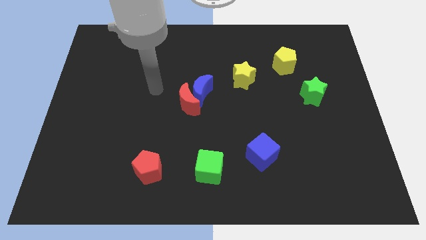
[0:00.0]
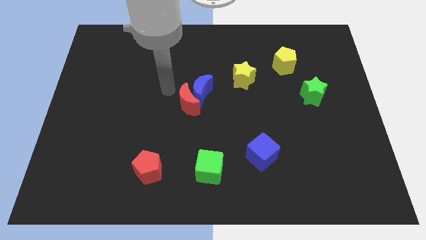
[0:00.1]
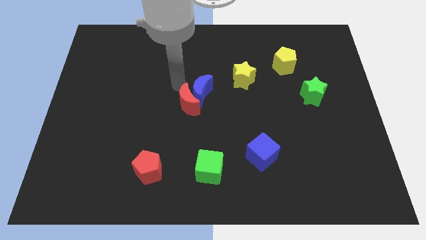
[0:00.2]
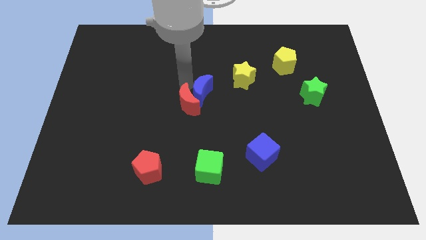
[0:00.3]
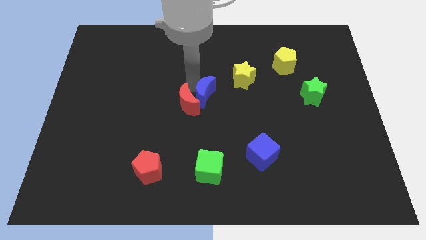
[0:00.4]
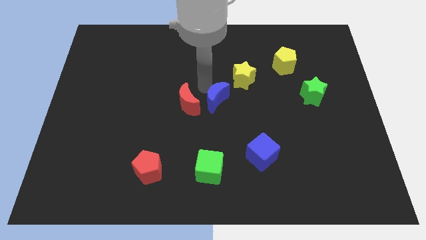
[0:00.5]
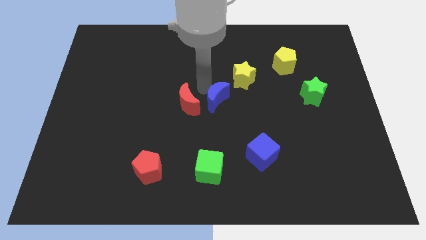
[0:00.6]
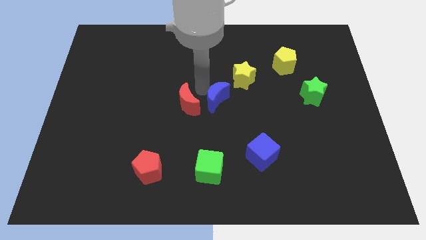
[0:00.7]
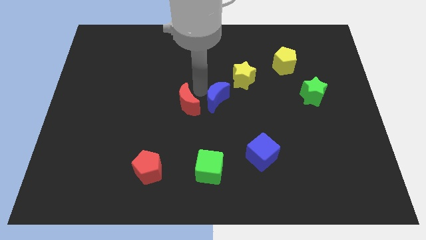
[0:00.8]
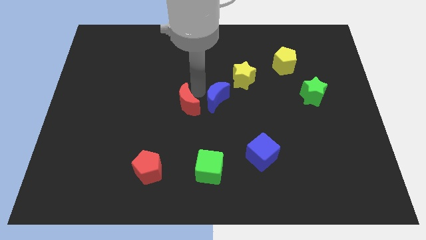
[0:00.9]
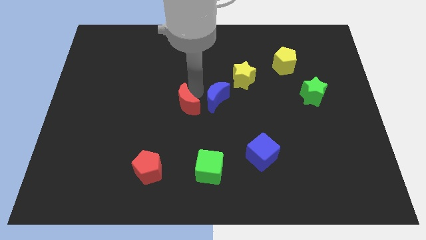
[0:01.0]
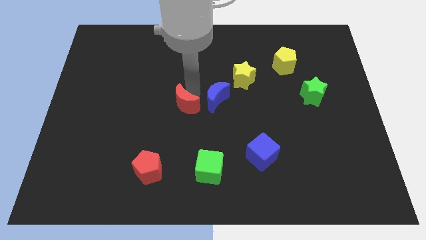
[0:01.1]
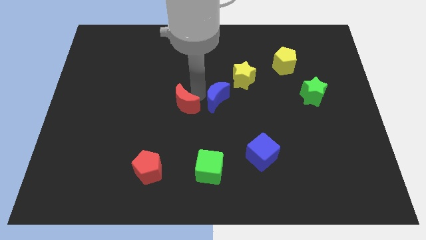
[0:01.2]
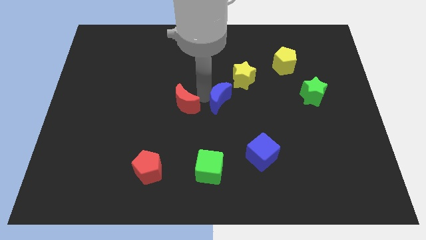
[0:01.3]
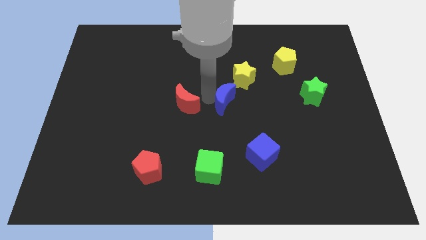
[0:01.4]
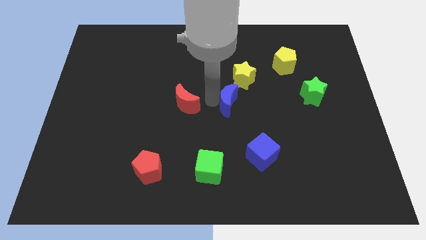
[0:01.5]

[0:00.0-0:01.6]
separate the red moon from the blue moon

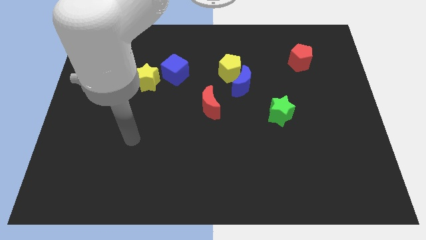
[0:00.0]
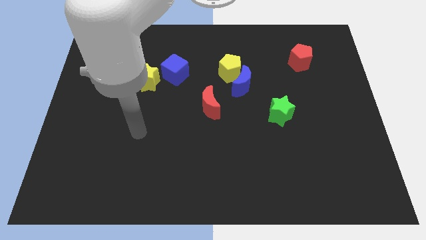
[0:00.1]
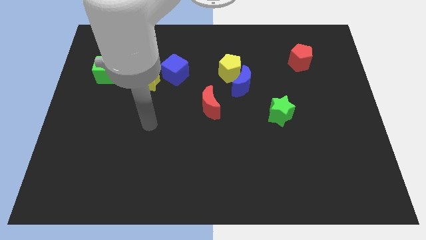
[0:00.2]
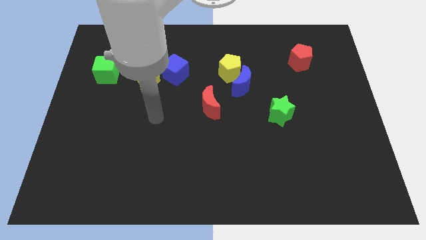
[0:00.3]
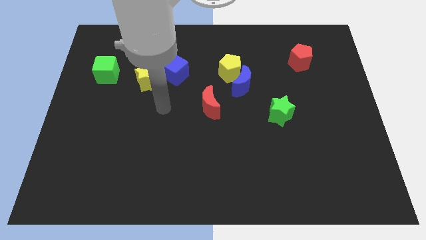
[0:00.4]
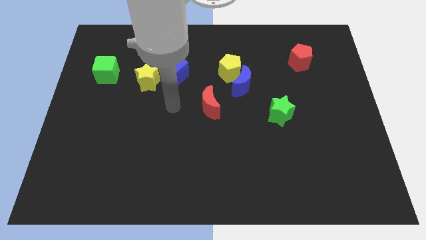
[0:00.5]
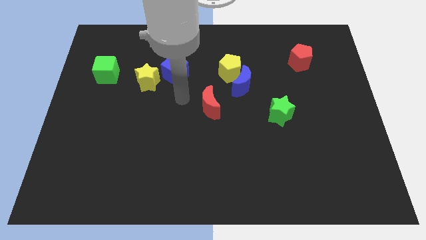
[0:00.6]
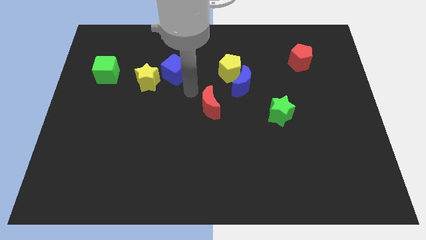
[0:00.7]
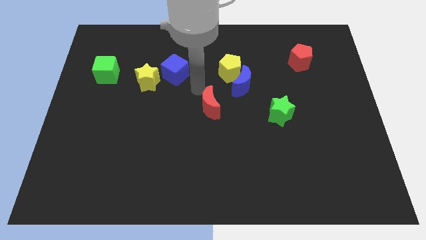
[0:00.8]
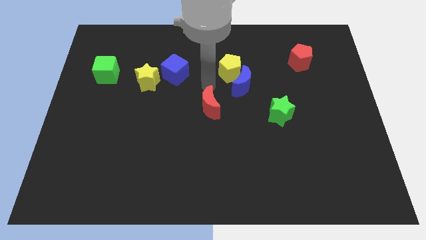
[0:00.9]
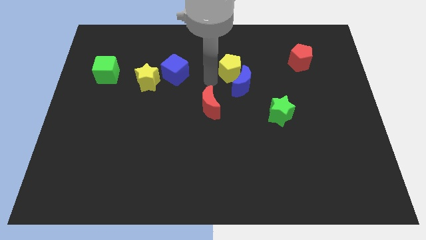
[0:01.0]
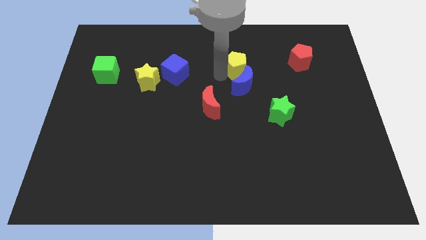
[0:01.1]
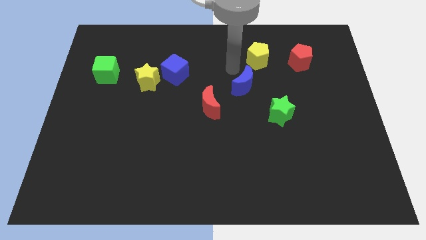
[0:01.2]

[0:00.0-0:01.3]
move the blue moon away from the yellow pentagon

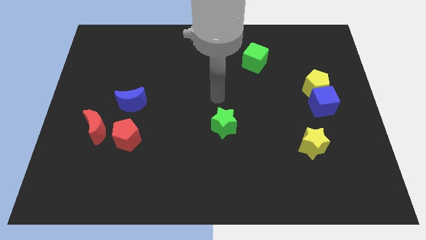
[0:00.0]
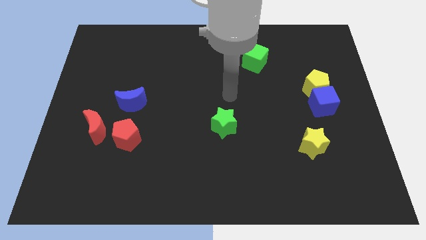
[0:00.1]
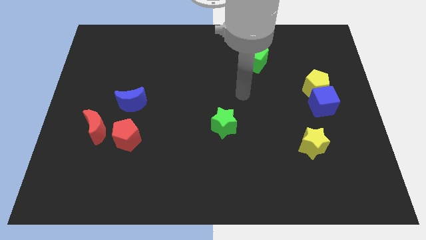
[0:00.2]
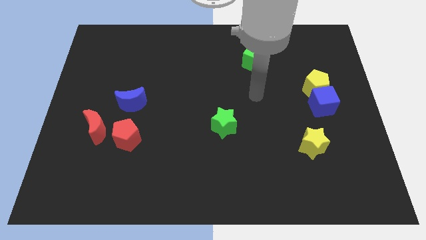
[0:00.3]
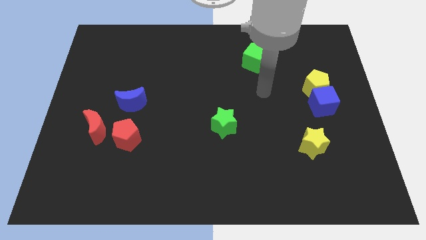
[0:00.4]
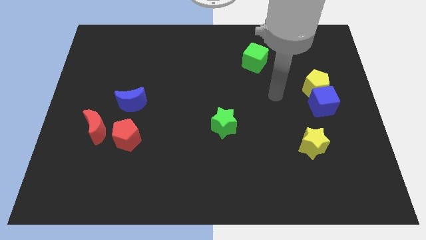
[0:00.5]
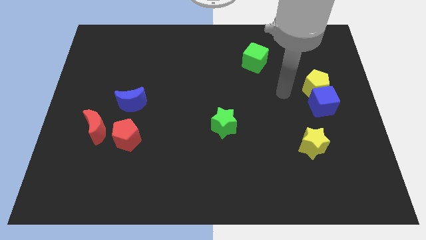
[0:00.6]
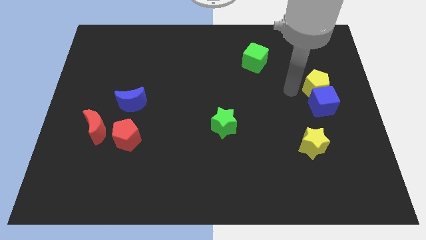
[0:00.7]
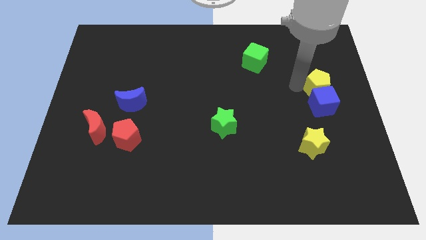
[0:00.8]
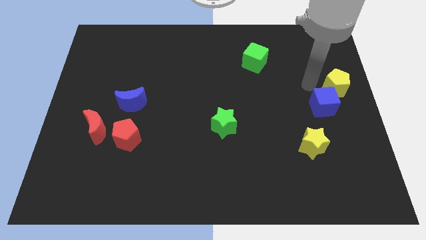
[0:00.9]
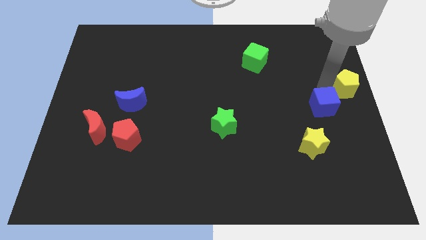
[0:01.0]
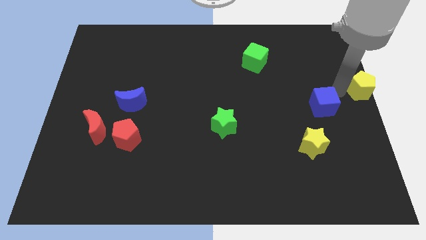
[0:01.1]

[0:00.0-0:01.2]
move the blue cube away from the yellow pentagon

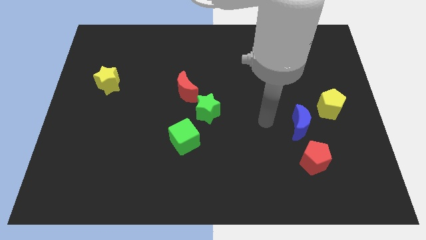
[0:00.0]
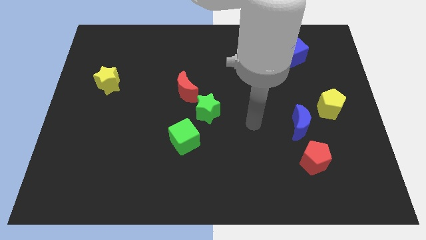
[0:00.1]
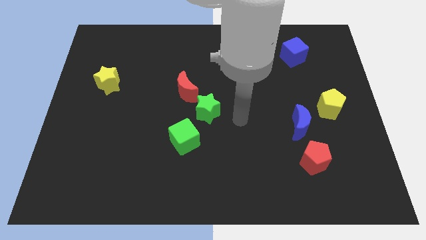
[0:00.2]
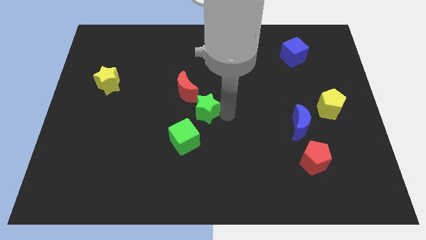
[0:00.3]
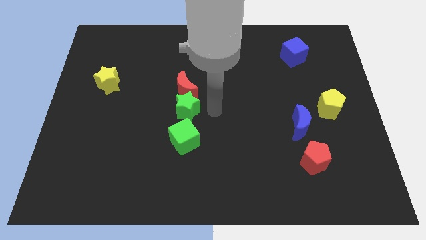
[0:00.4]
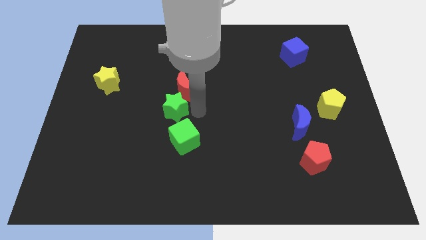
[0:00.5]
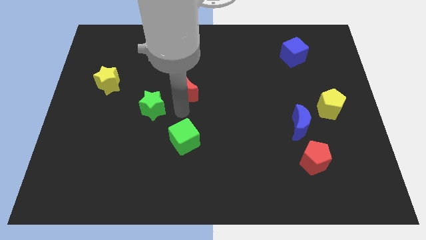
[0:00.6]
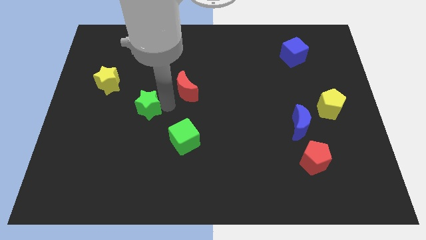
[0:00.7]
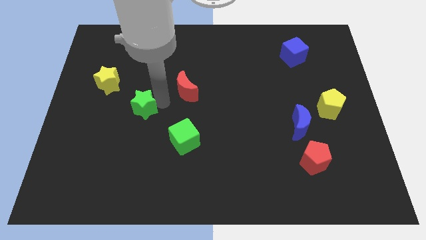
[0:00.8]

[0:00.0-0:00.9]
separate the red moon from the green star

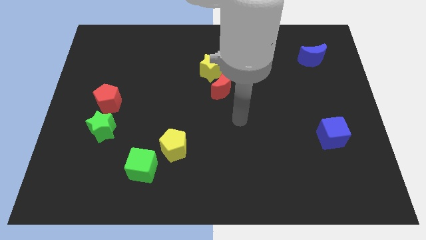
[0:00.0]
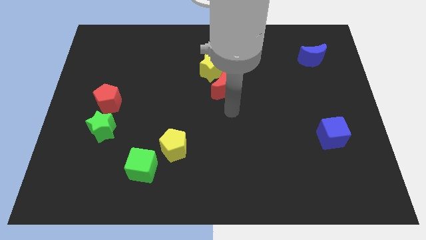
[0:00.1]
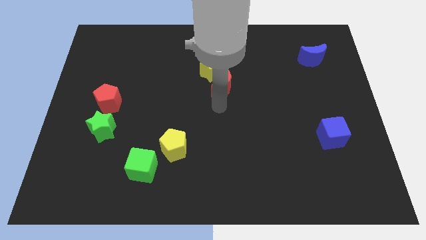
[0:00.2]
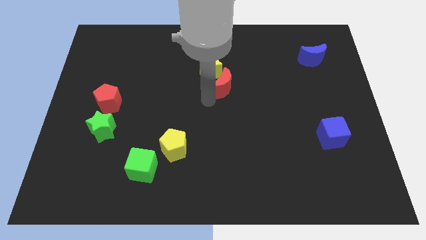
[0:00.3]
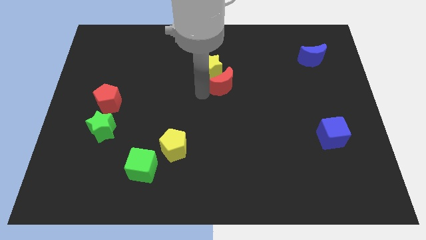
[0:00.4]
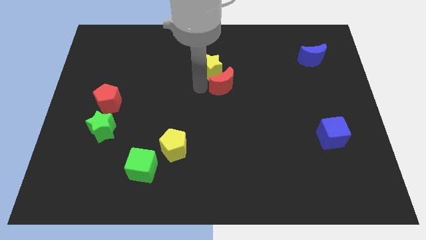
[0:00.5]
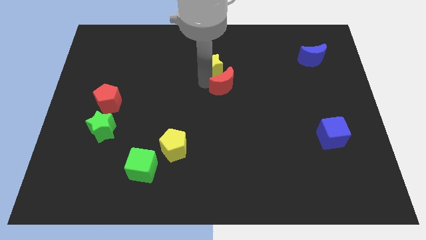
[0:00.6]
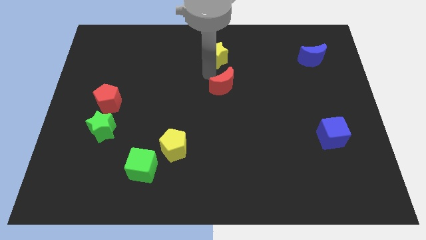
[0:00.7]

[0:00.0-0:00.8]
pull the red moon apart from the yellow star

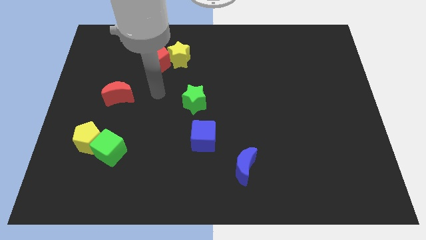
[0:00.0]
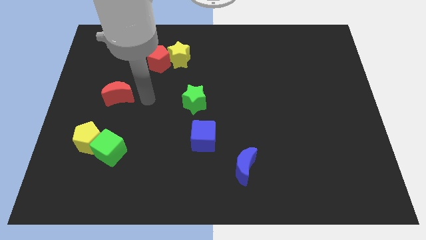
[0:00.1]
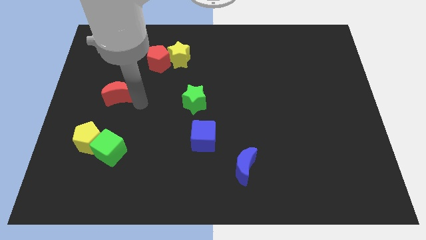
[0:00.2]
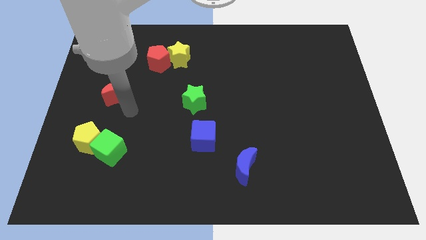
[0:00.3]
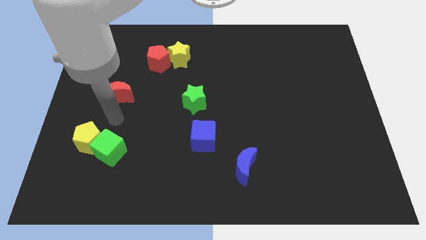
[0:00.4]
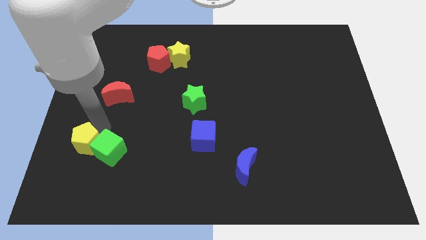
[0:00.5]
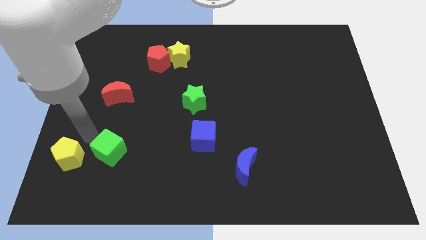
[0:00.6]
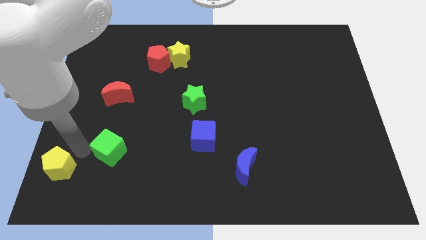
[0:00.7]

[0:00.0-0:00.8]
pull the green cube apart from the yellow pentagon

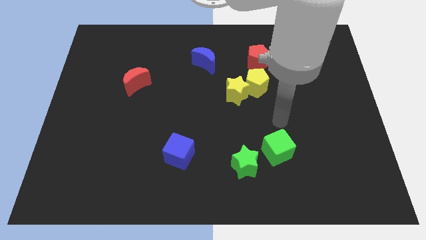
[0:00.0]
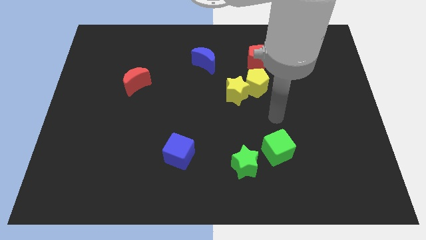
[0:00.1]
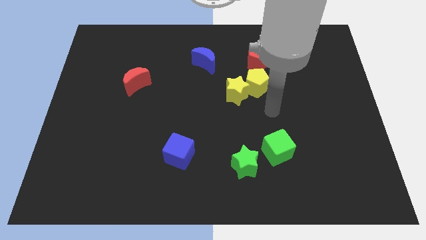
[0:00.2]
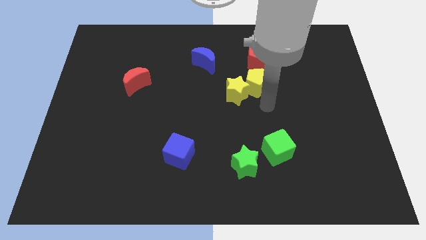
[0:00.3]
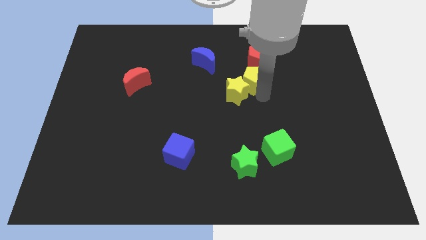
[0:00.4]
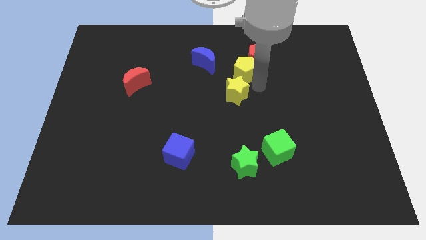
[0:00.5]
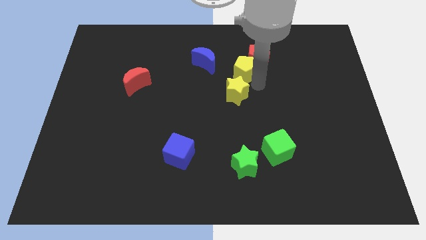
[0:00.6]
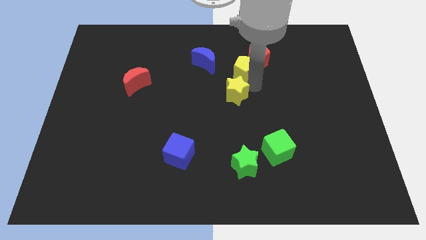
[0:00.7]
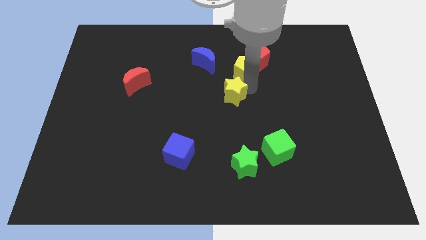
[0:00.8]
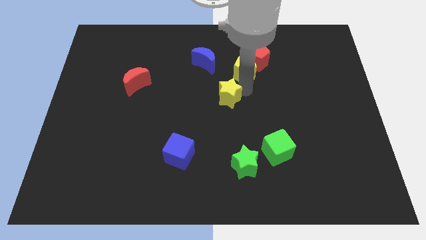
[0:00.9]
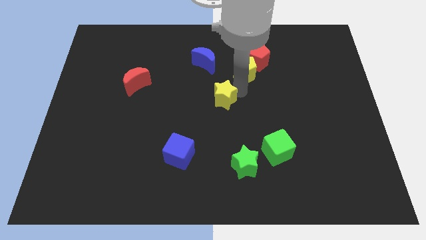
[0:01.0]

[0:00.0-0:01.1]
move the yellow star away from the yellow pentagon

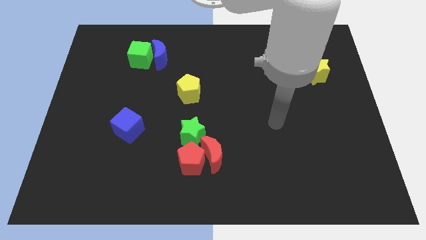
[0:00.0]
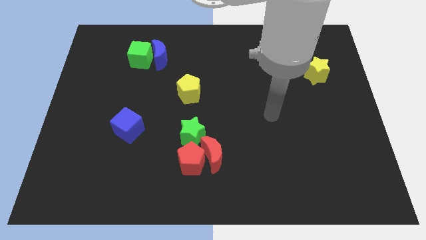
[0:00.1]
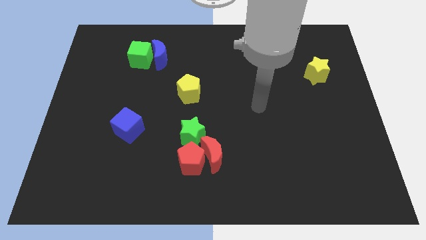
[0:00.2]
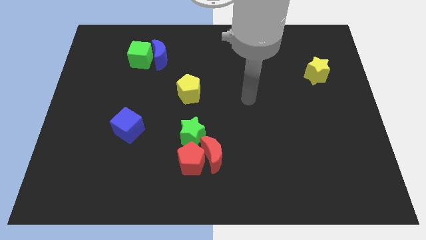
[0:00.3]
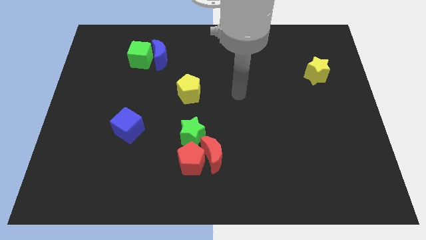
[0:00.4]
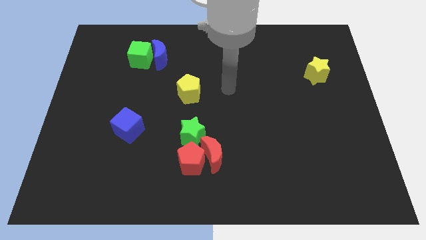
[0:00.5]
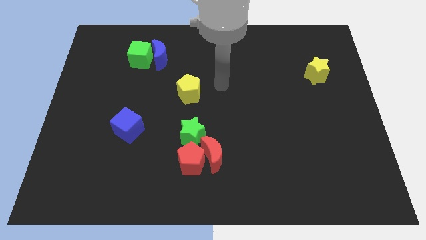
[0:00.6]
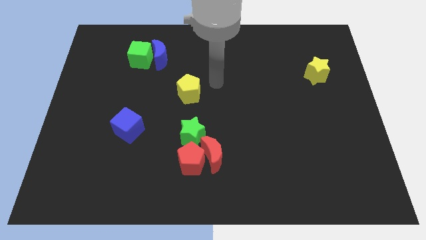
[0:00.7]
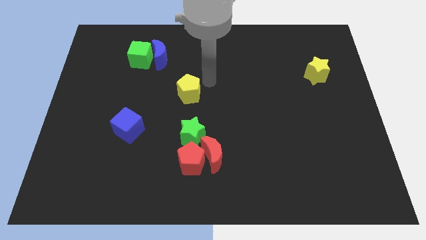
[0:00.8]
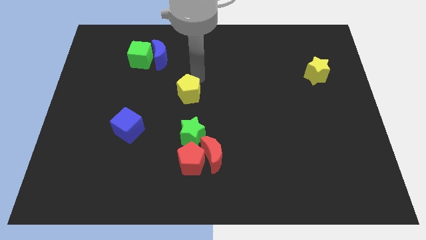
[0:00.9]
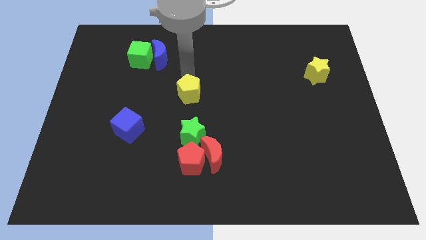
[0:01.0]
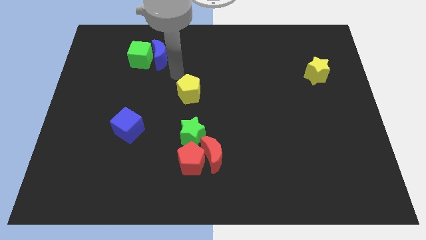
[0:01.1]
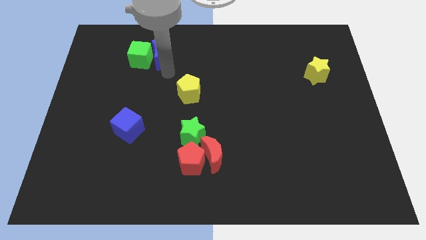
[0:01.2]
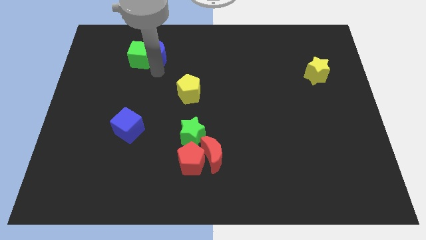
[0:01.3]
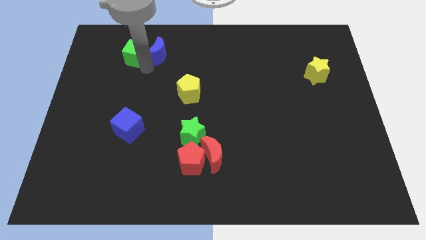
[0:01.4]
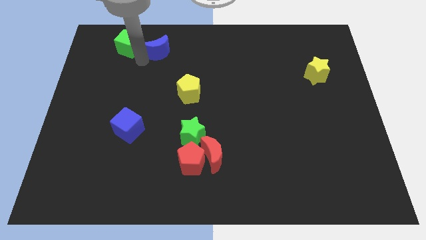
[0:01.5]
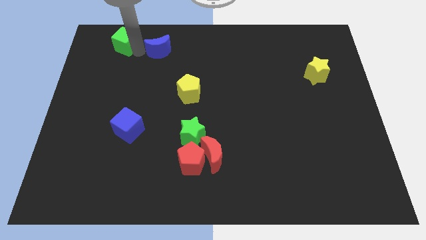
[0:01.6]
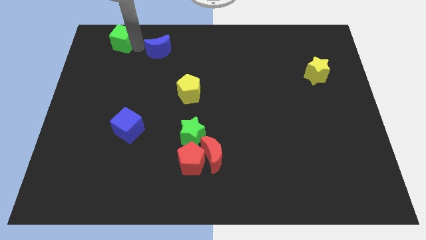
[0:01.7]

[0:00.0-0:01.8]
move the blue moon away from the green cube
